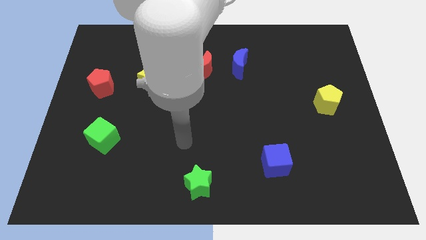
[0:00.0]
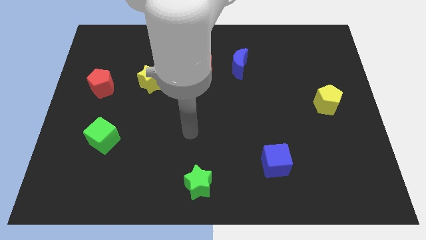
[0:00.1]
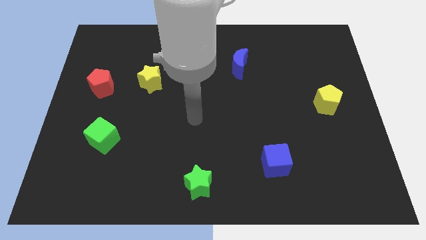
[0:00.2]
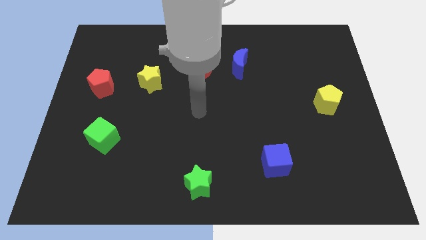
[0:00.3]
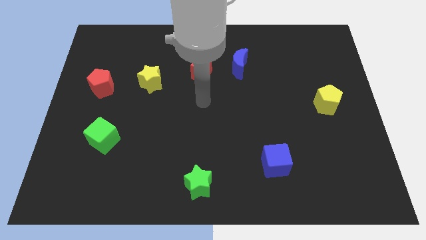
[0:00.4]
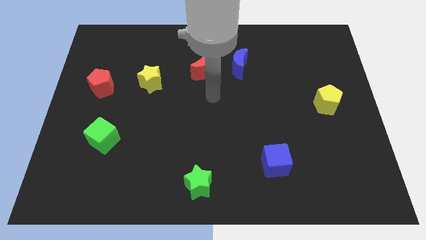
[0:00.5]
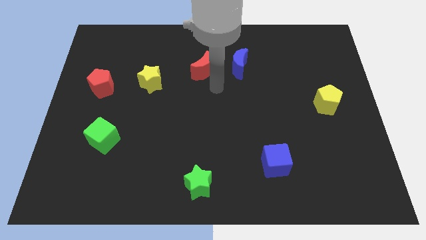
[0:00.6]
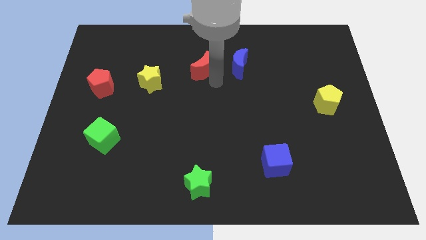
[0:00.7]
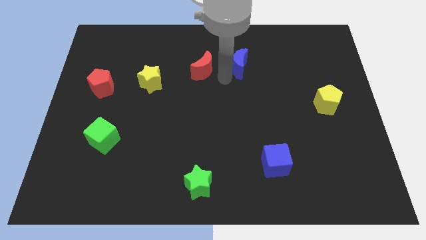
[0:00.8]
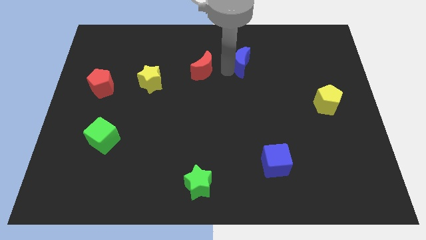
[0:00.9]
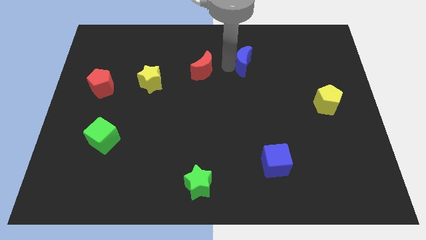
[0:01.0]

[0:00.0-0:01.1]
separate the red moon from the blue moon

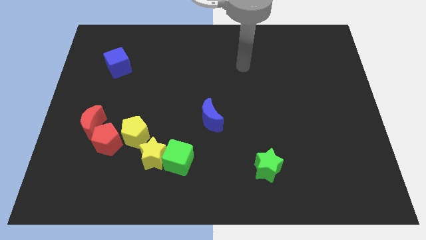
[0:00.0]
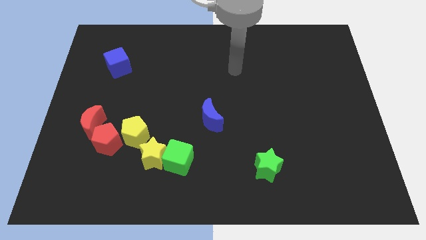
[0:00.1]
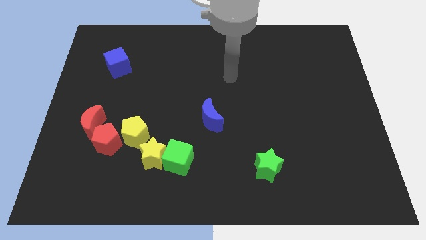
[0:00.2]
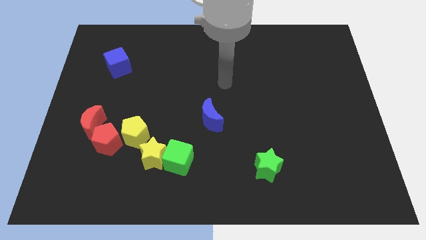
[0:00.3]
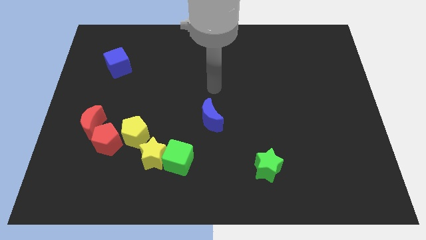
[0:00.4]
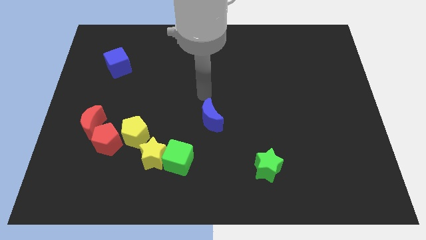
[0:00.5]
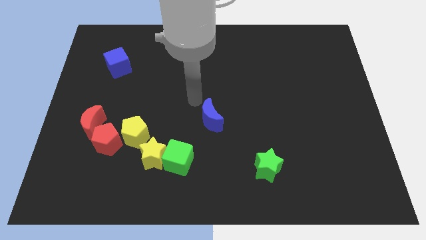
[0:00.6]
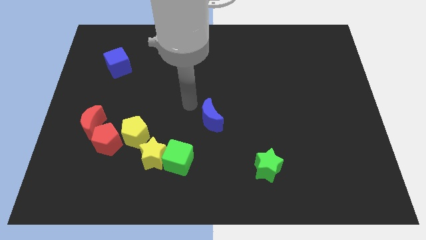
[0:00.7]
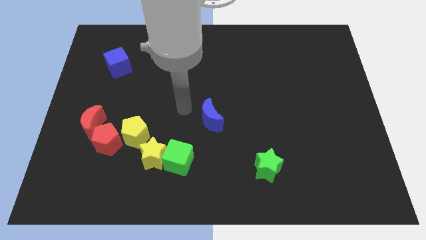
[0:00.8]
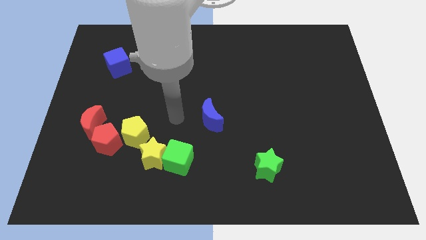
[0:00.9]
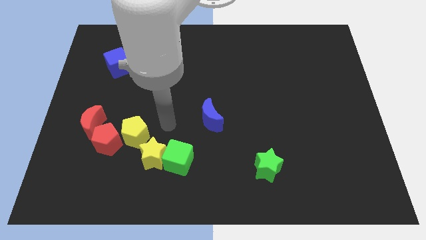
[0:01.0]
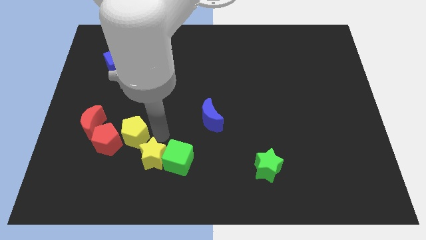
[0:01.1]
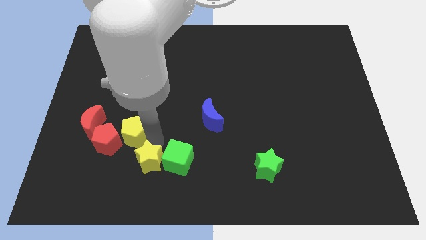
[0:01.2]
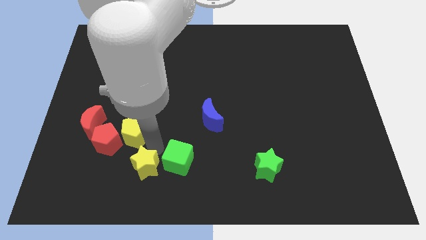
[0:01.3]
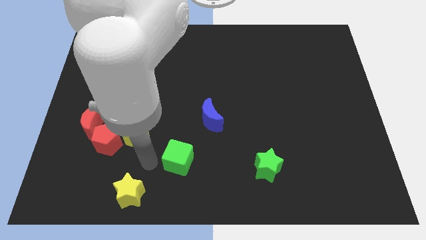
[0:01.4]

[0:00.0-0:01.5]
move the green cube away from the yellow star

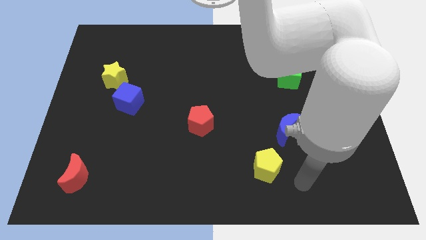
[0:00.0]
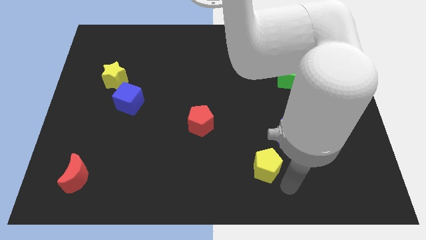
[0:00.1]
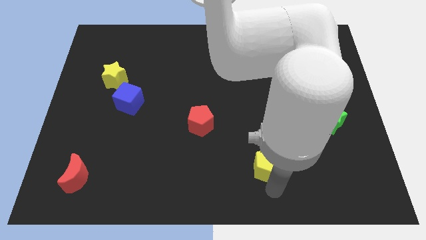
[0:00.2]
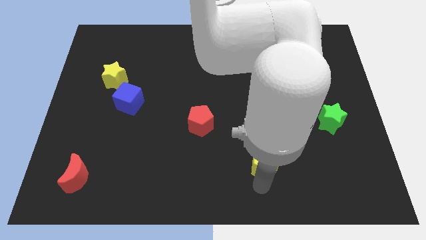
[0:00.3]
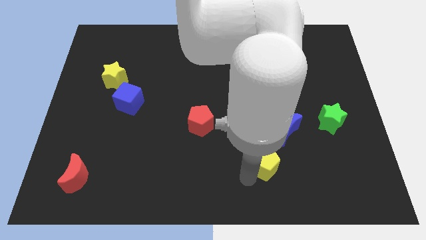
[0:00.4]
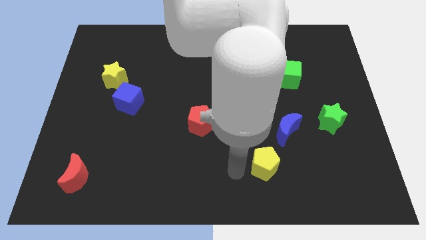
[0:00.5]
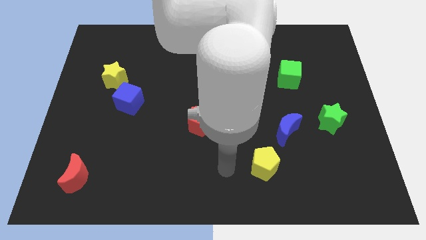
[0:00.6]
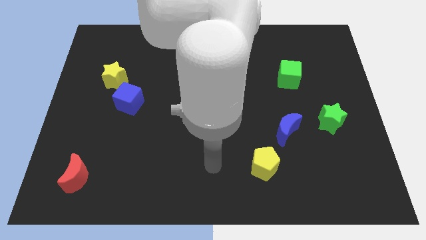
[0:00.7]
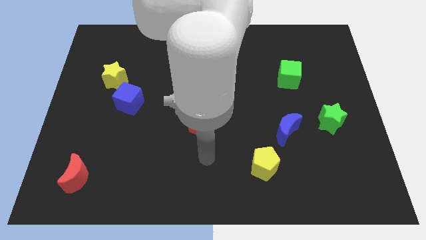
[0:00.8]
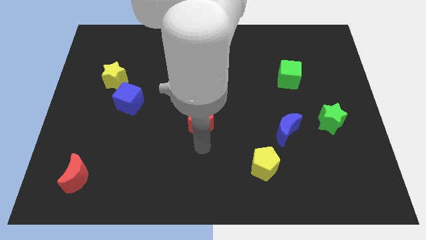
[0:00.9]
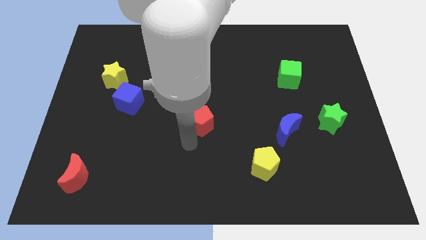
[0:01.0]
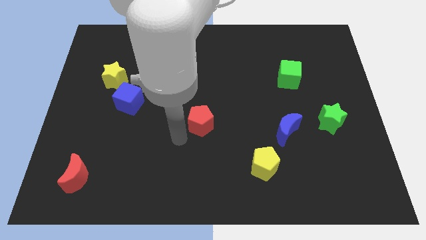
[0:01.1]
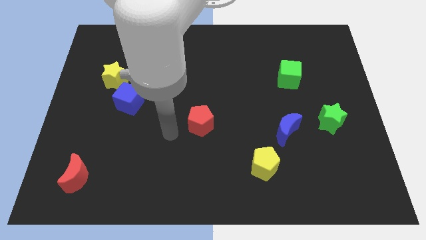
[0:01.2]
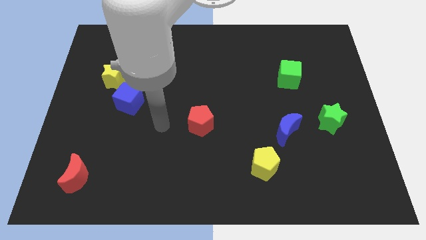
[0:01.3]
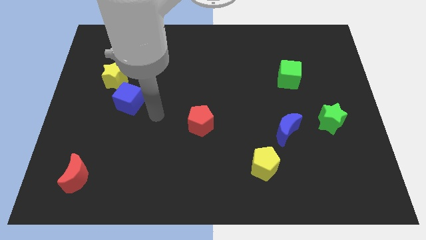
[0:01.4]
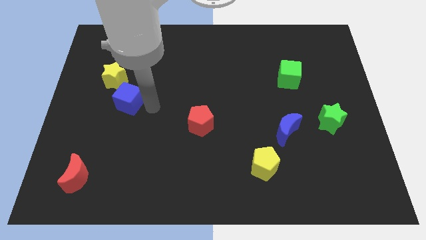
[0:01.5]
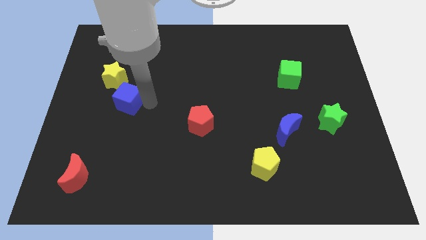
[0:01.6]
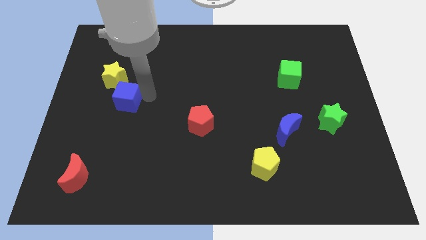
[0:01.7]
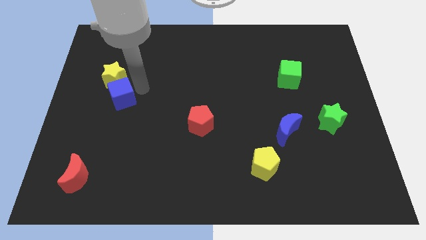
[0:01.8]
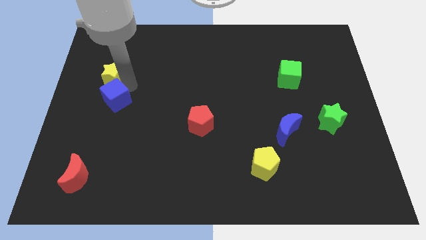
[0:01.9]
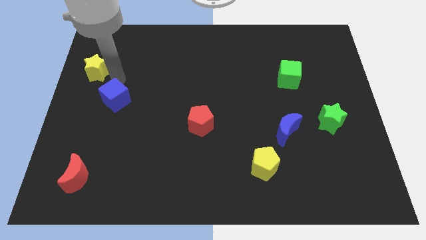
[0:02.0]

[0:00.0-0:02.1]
move the blue cube away from the yellow star

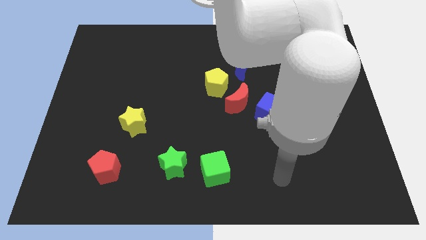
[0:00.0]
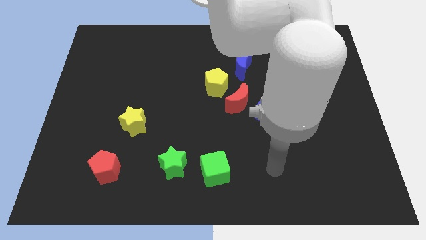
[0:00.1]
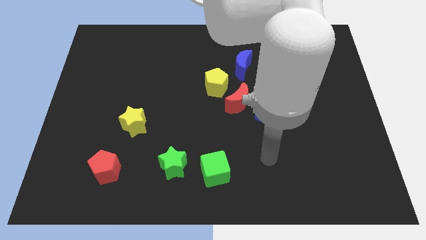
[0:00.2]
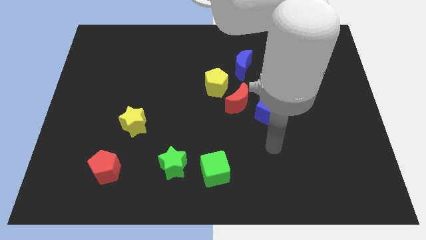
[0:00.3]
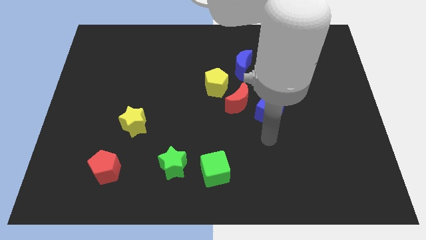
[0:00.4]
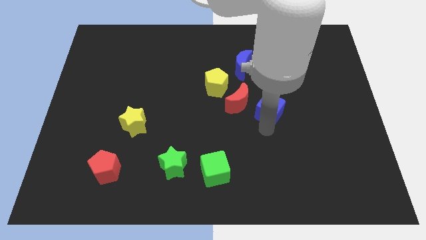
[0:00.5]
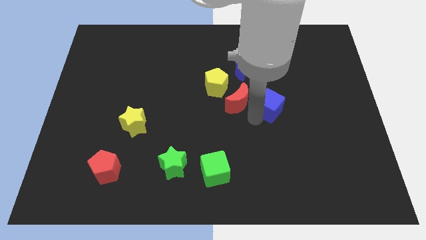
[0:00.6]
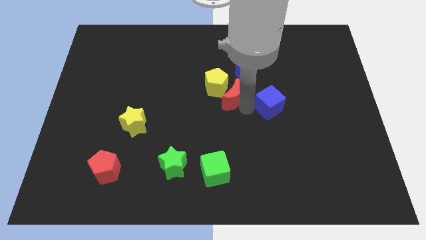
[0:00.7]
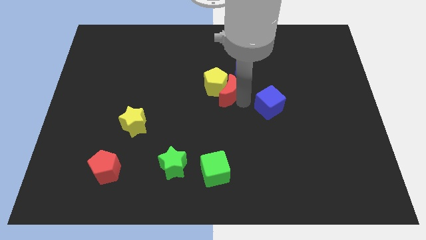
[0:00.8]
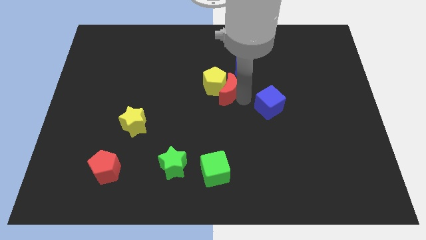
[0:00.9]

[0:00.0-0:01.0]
separate the blue cube from the red moon

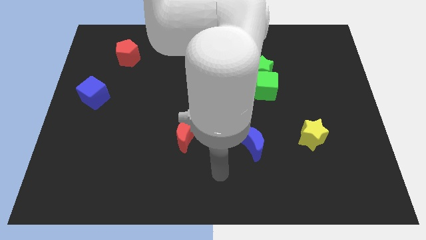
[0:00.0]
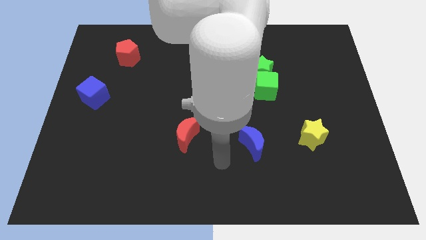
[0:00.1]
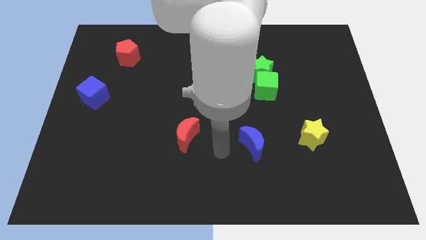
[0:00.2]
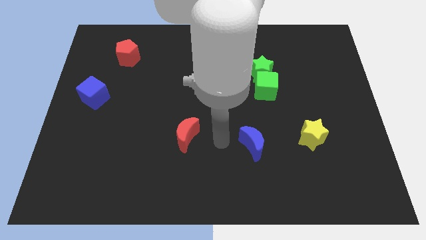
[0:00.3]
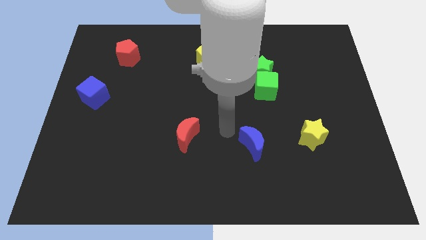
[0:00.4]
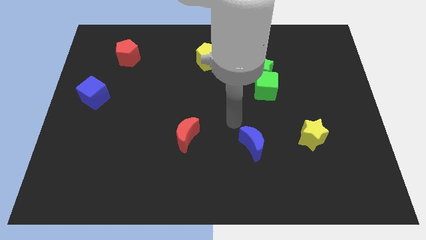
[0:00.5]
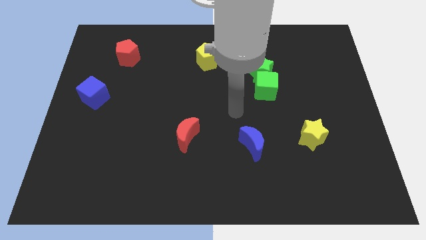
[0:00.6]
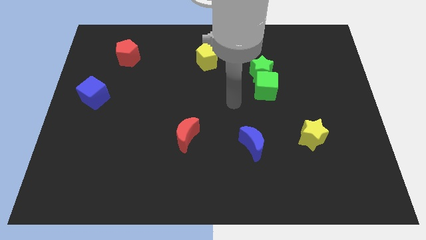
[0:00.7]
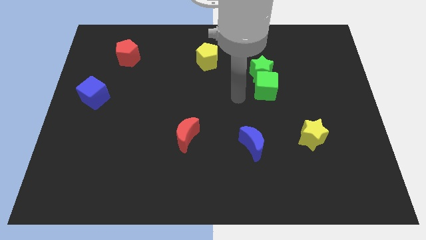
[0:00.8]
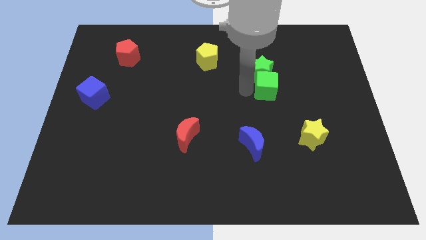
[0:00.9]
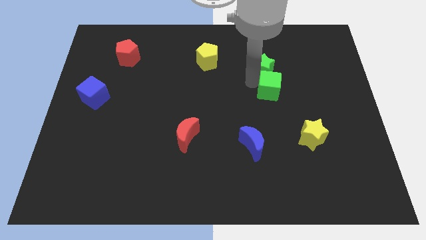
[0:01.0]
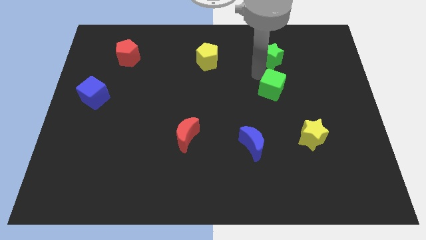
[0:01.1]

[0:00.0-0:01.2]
pull the green cube apart from the green star

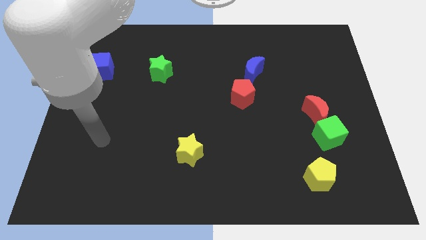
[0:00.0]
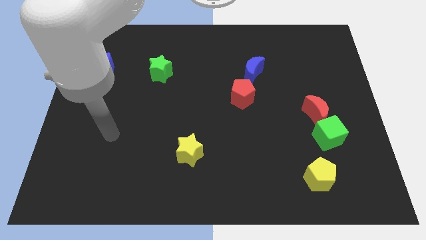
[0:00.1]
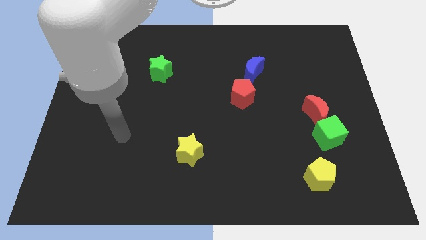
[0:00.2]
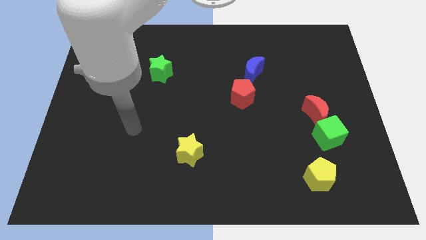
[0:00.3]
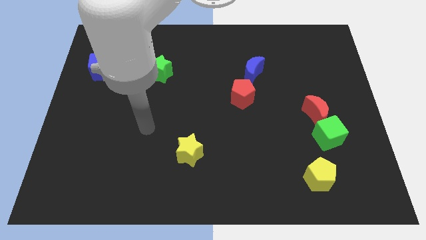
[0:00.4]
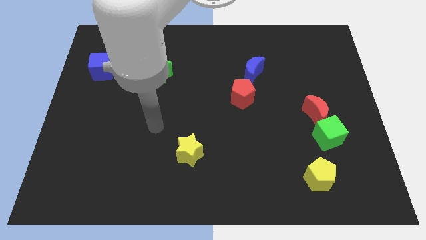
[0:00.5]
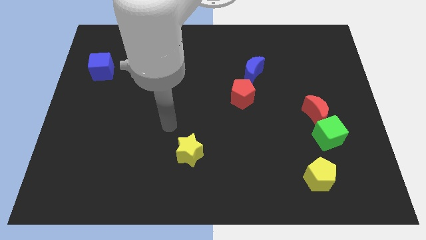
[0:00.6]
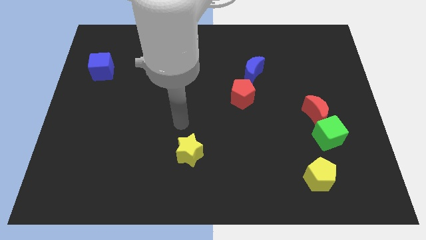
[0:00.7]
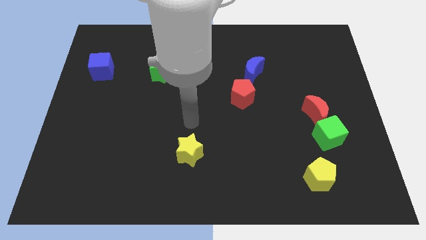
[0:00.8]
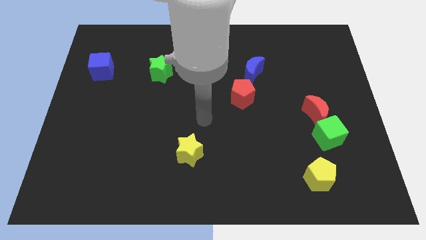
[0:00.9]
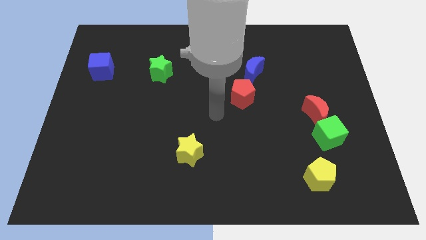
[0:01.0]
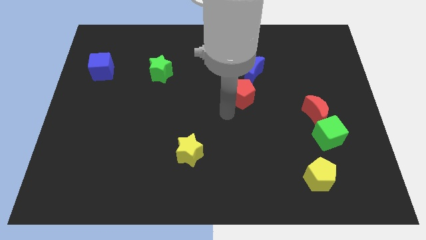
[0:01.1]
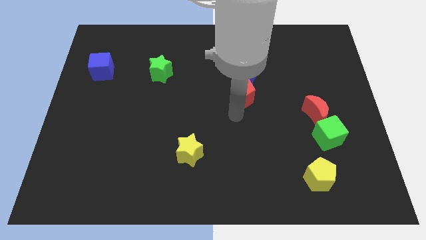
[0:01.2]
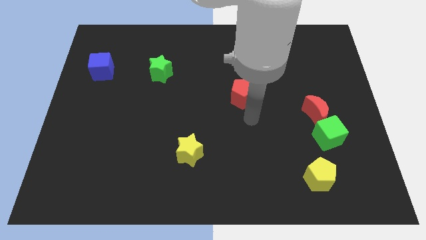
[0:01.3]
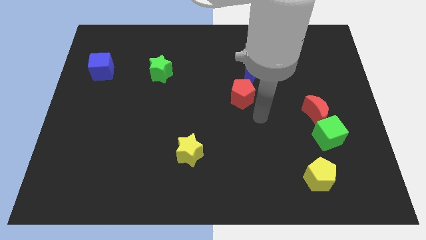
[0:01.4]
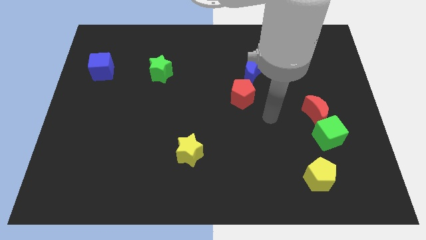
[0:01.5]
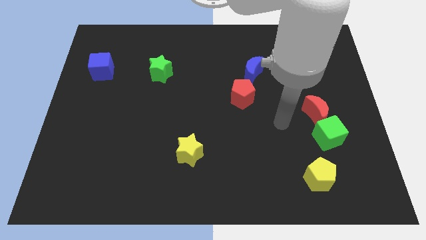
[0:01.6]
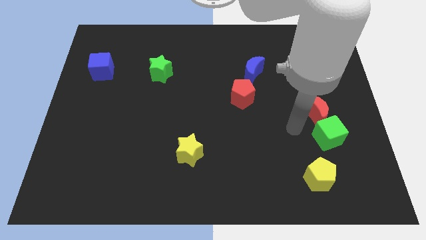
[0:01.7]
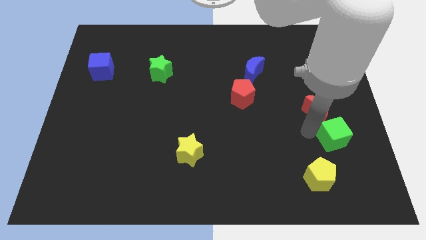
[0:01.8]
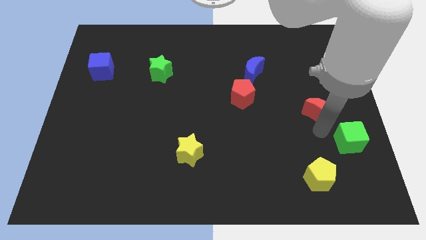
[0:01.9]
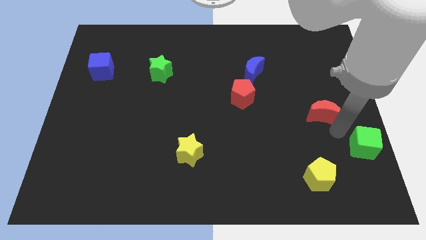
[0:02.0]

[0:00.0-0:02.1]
separate the red moon from the green cube

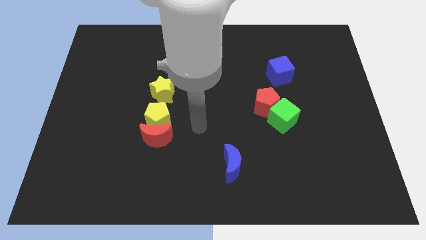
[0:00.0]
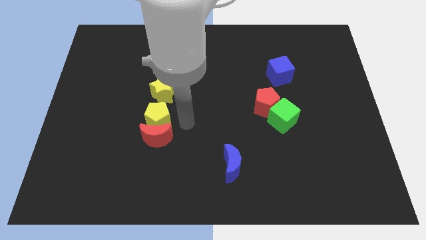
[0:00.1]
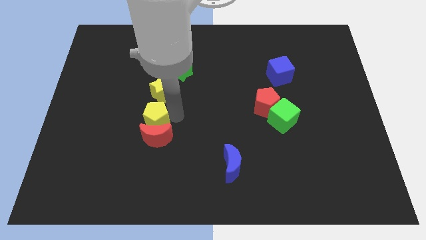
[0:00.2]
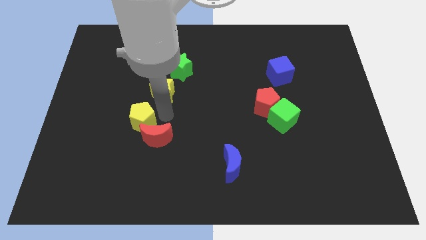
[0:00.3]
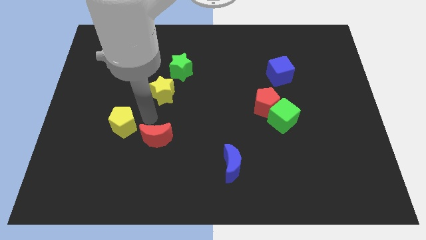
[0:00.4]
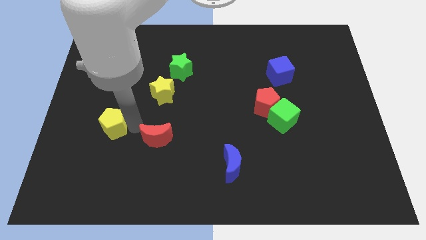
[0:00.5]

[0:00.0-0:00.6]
separate the red moon from the yellow pentagon
